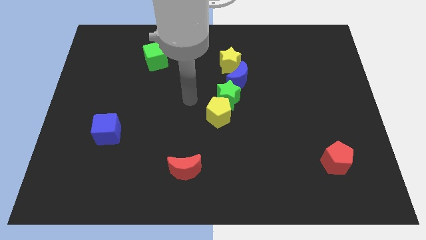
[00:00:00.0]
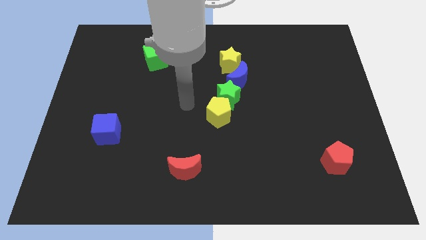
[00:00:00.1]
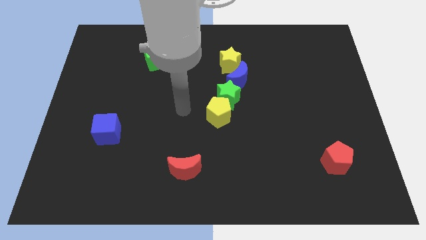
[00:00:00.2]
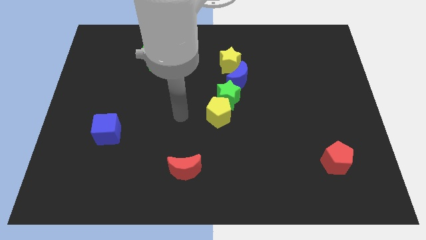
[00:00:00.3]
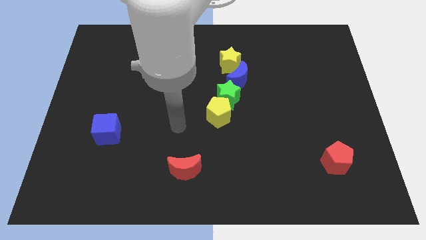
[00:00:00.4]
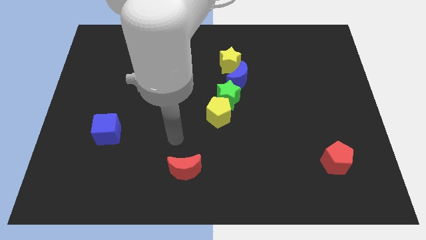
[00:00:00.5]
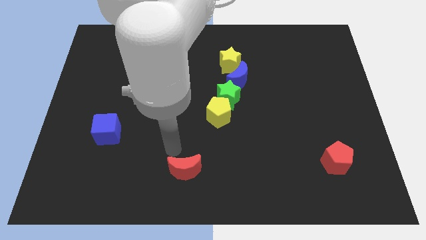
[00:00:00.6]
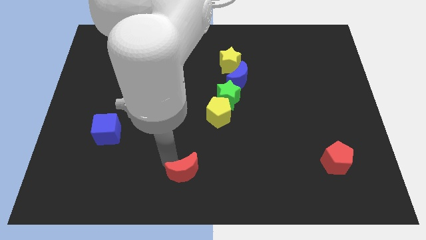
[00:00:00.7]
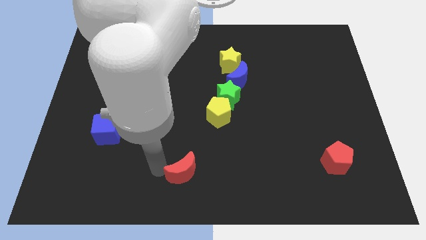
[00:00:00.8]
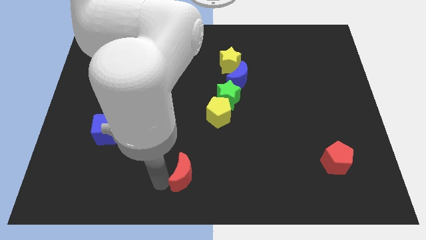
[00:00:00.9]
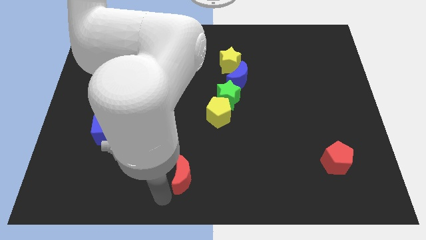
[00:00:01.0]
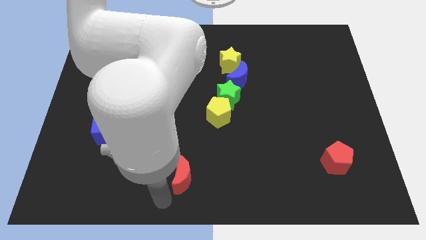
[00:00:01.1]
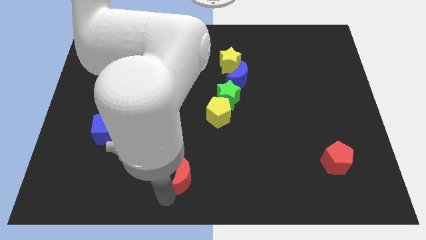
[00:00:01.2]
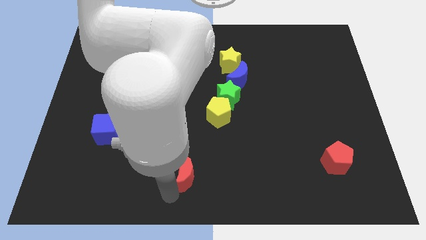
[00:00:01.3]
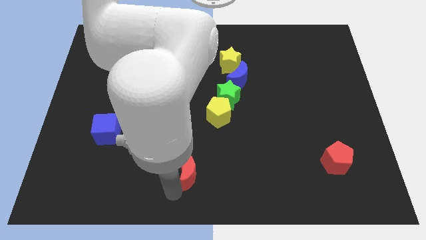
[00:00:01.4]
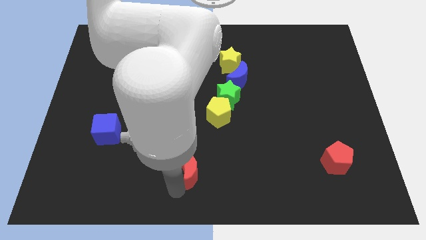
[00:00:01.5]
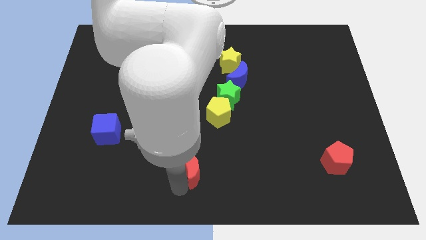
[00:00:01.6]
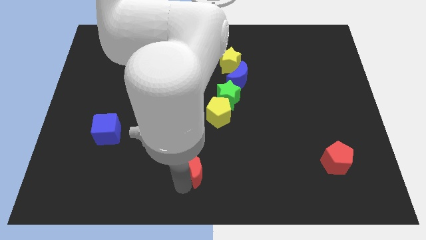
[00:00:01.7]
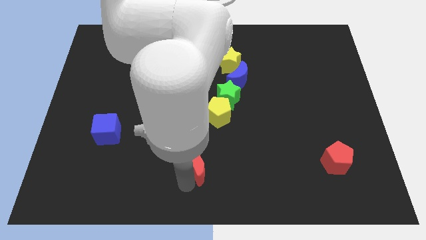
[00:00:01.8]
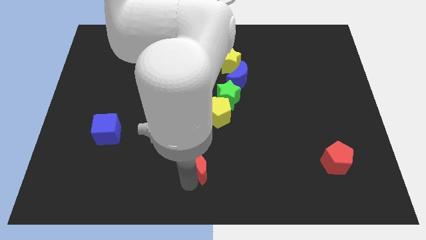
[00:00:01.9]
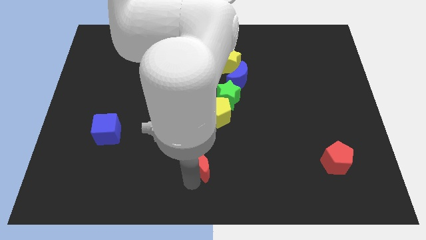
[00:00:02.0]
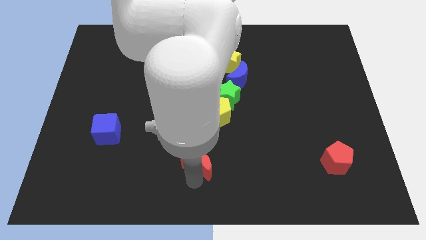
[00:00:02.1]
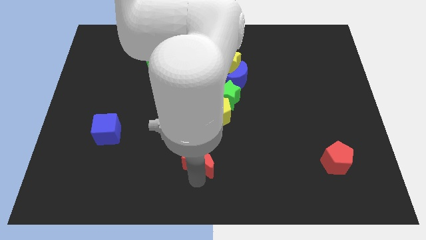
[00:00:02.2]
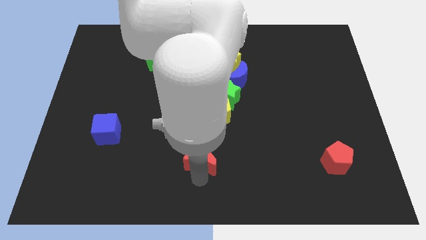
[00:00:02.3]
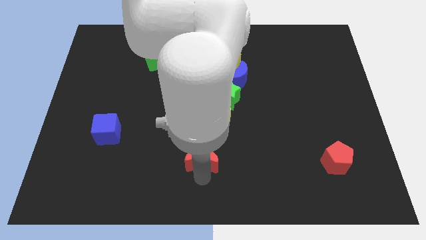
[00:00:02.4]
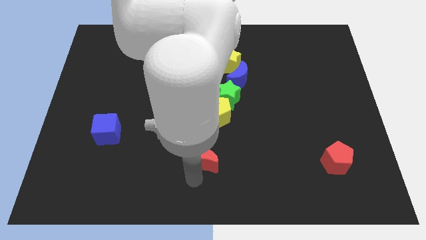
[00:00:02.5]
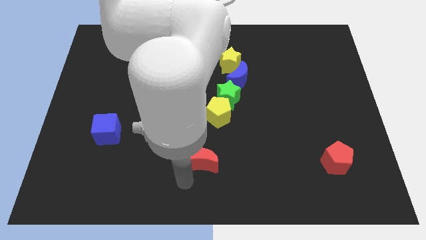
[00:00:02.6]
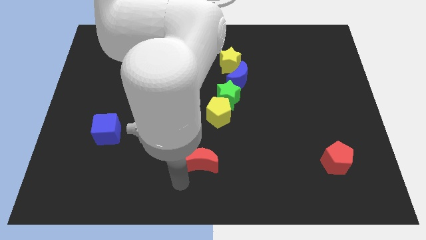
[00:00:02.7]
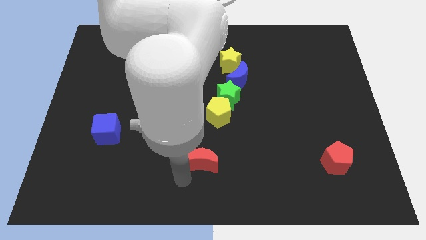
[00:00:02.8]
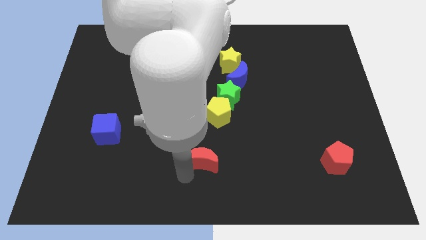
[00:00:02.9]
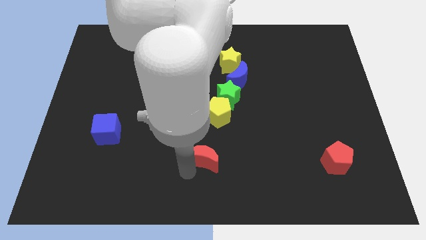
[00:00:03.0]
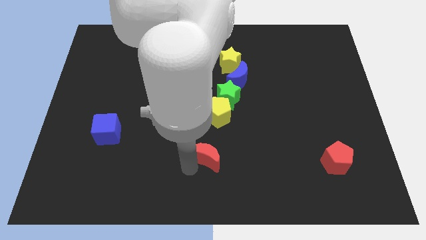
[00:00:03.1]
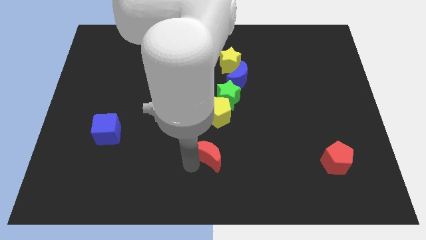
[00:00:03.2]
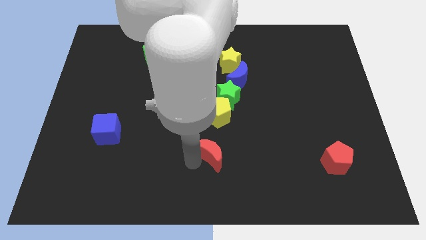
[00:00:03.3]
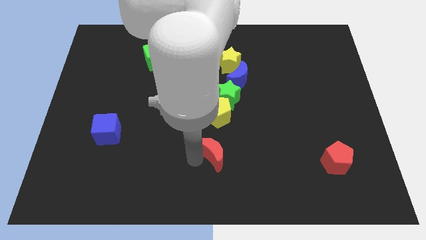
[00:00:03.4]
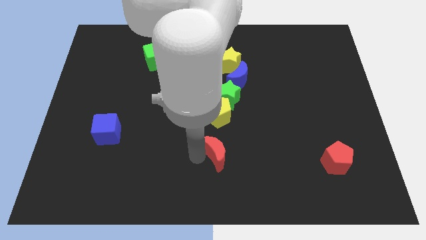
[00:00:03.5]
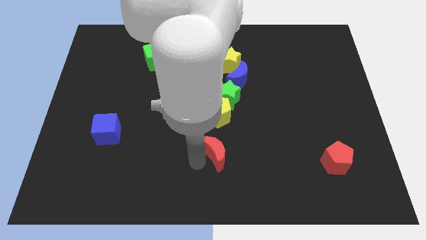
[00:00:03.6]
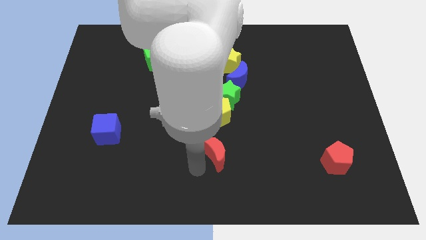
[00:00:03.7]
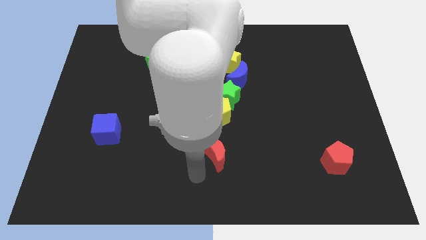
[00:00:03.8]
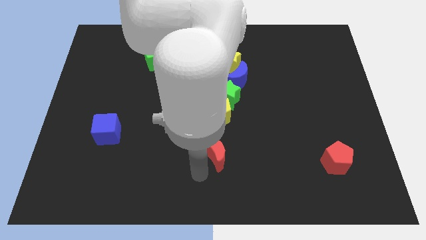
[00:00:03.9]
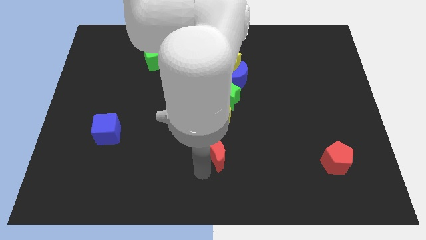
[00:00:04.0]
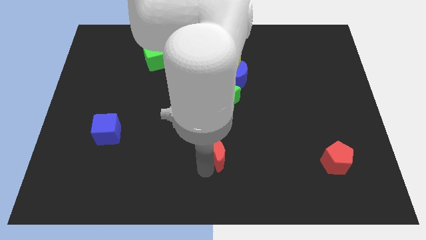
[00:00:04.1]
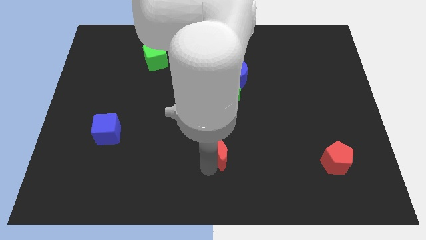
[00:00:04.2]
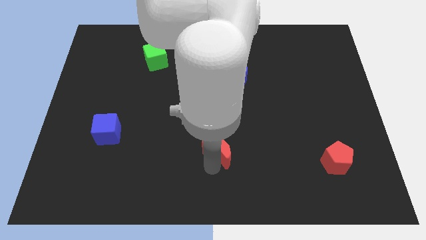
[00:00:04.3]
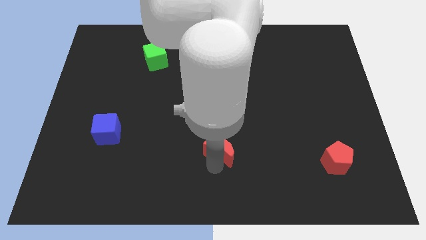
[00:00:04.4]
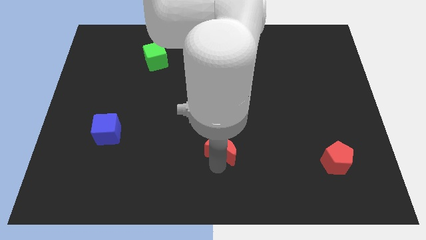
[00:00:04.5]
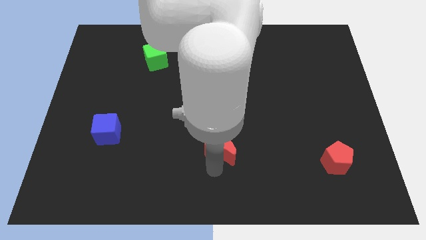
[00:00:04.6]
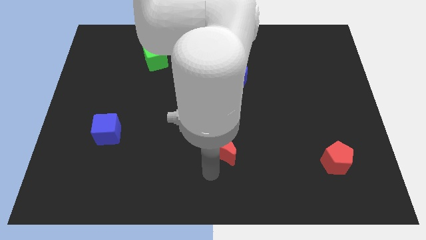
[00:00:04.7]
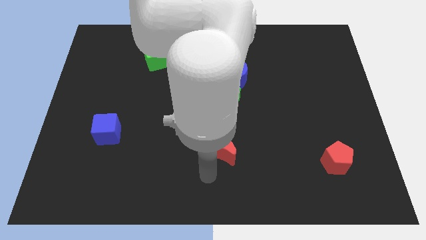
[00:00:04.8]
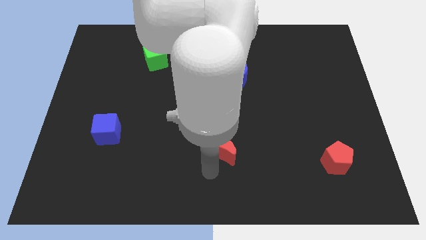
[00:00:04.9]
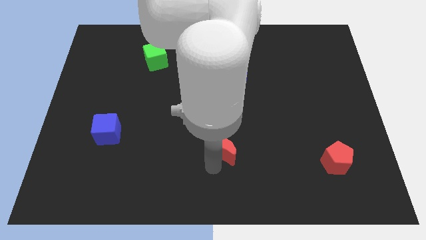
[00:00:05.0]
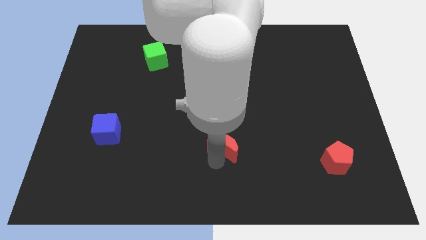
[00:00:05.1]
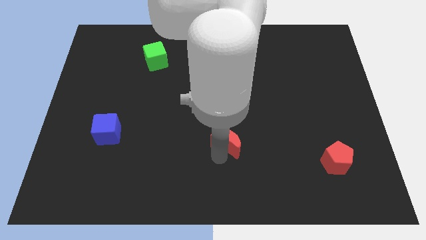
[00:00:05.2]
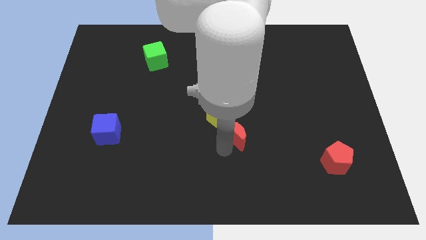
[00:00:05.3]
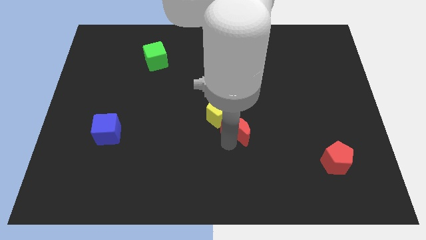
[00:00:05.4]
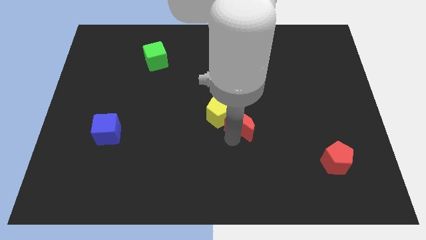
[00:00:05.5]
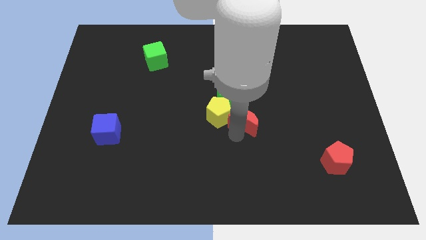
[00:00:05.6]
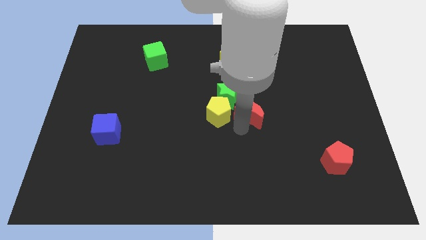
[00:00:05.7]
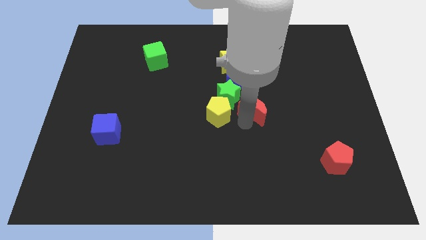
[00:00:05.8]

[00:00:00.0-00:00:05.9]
put the red moon to the bottom right side of the blue moon

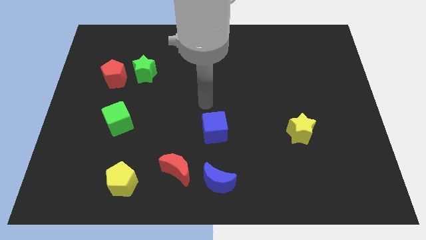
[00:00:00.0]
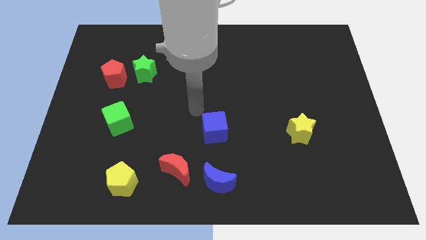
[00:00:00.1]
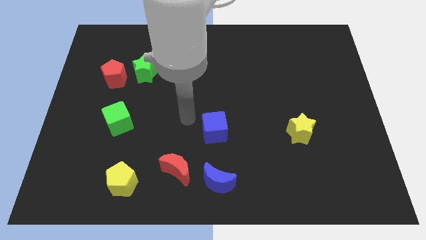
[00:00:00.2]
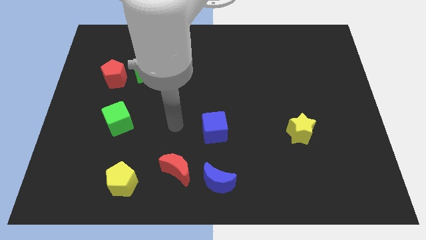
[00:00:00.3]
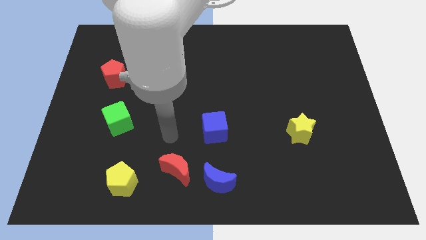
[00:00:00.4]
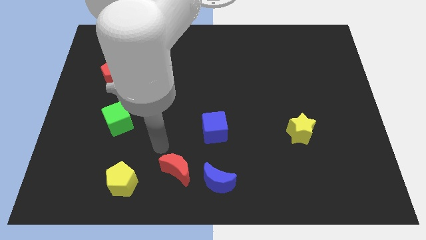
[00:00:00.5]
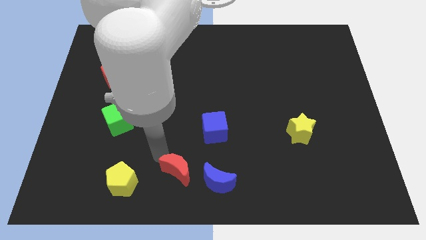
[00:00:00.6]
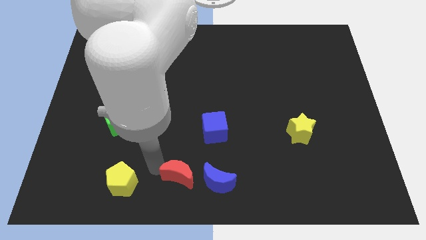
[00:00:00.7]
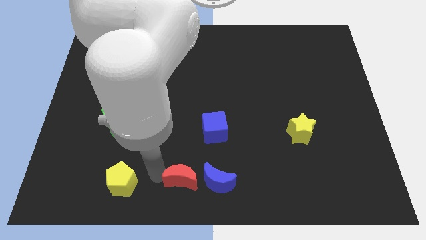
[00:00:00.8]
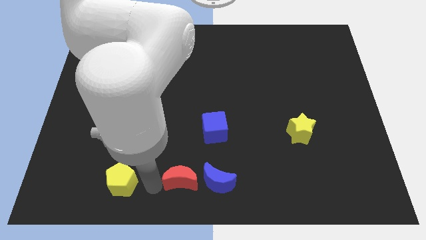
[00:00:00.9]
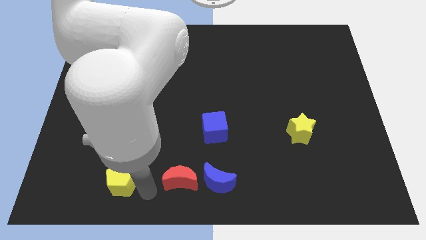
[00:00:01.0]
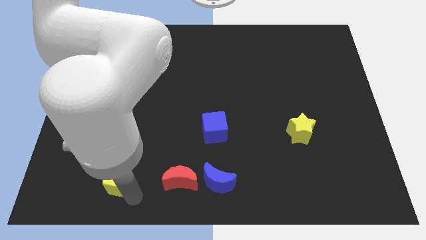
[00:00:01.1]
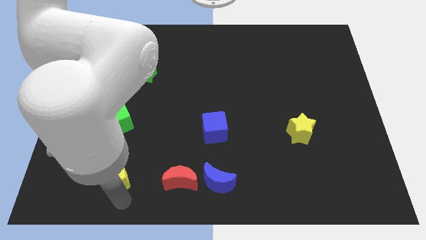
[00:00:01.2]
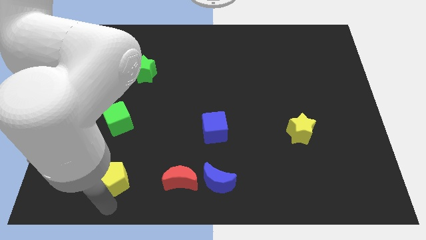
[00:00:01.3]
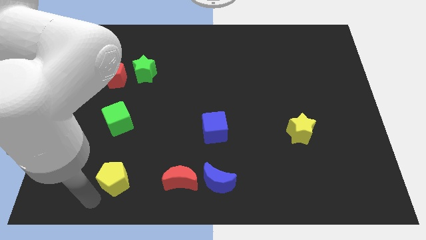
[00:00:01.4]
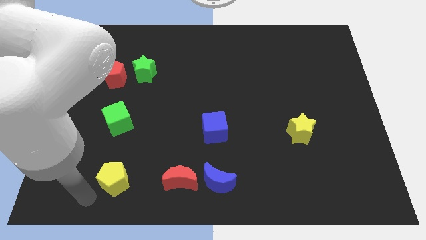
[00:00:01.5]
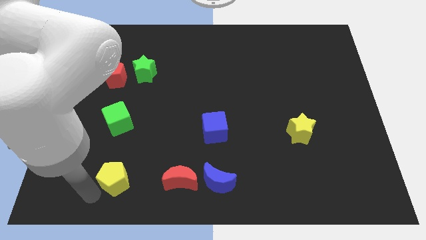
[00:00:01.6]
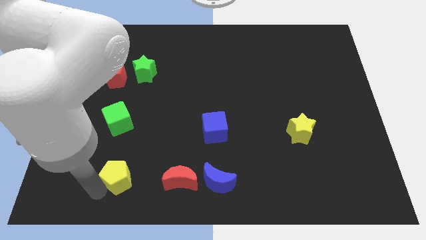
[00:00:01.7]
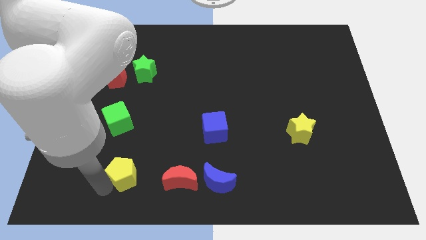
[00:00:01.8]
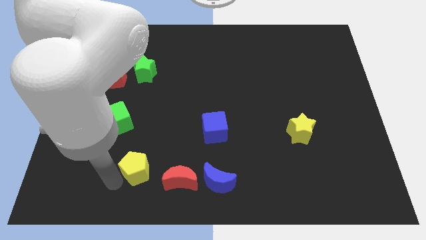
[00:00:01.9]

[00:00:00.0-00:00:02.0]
push the yellow pentagon diagonally up and to the left of the red moon
